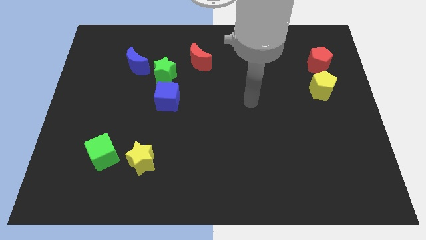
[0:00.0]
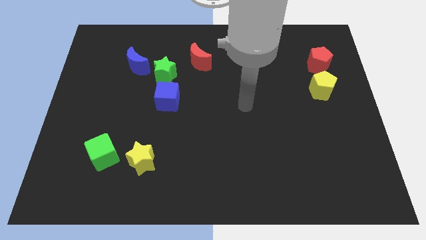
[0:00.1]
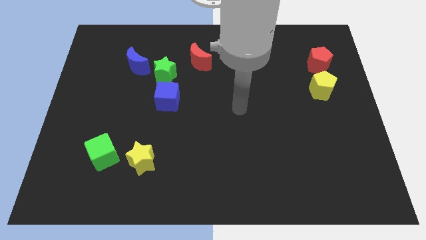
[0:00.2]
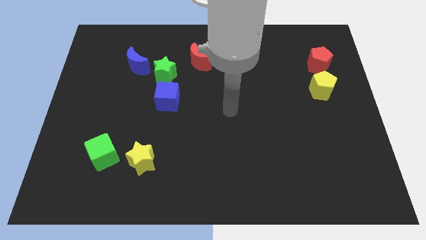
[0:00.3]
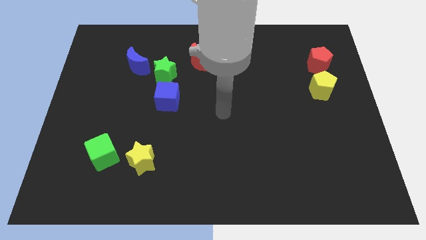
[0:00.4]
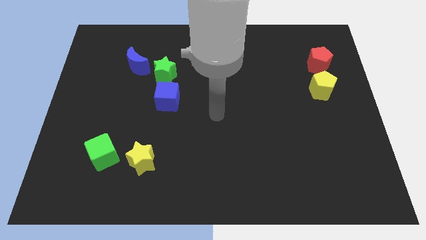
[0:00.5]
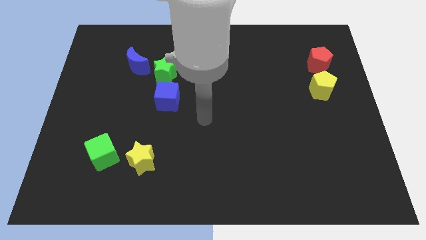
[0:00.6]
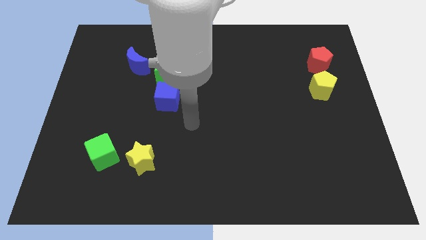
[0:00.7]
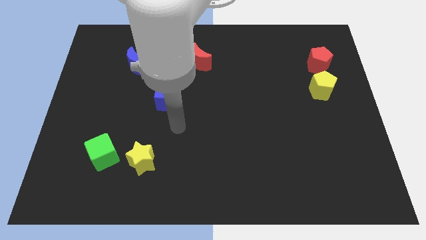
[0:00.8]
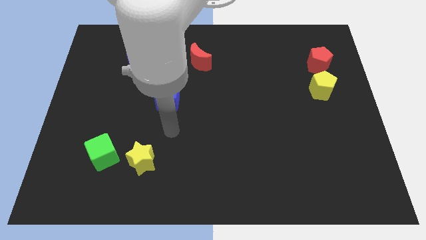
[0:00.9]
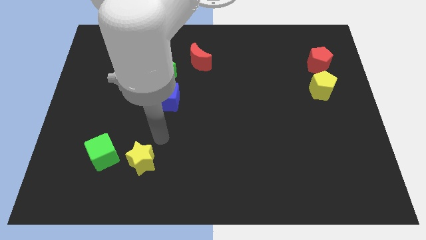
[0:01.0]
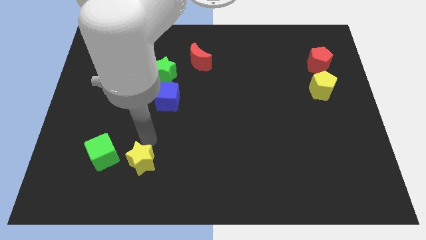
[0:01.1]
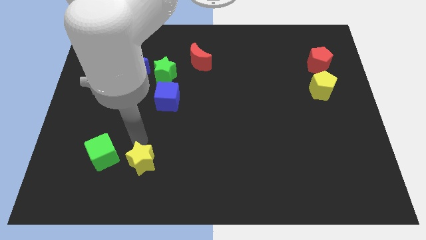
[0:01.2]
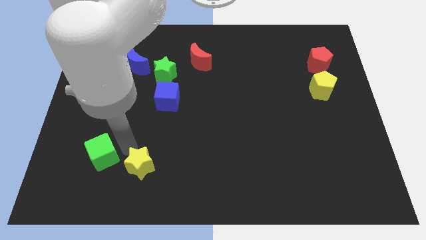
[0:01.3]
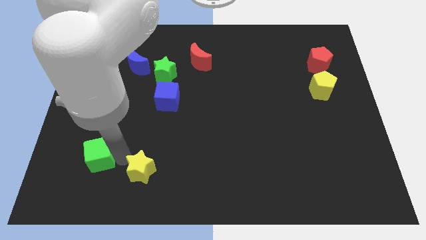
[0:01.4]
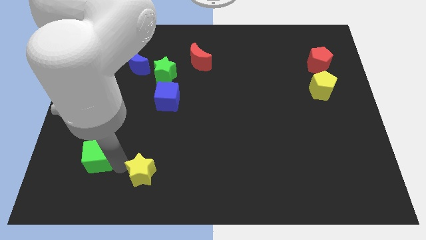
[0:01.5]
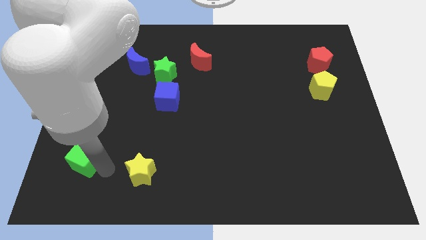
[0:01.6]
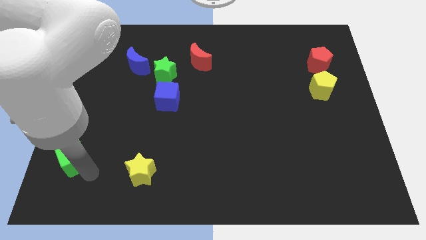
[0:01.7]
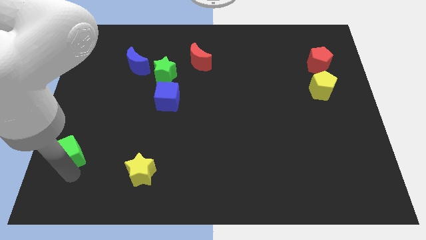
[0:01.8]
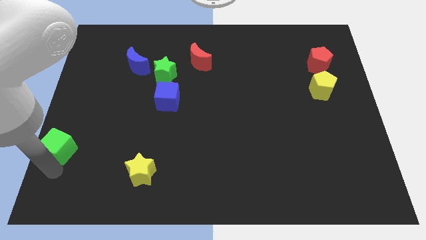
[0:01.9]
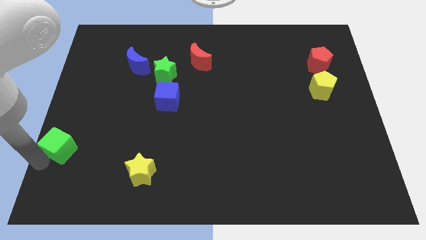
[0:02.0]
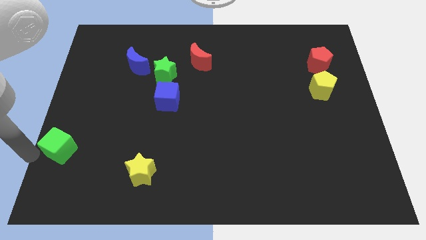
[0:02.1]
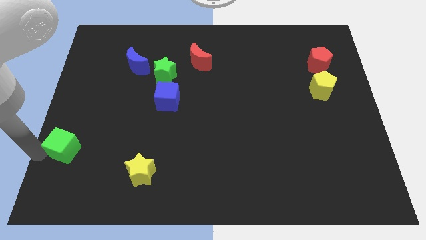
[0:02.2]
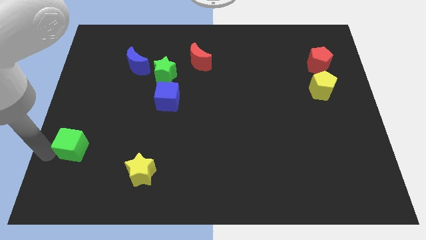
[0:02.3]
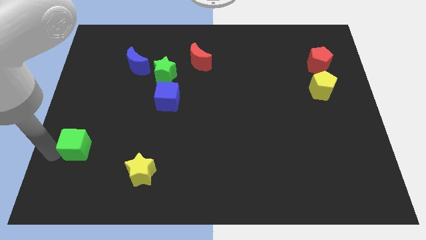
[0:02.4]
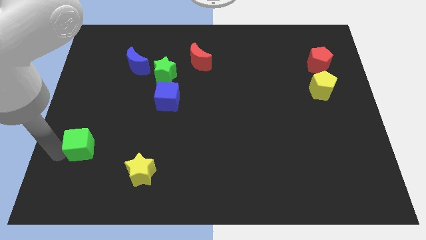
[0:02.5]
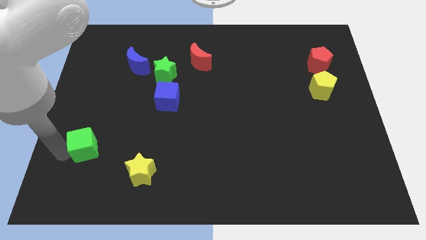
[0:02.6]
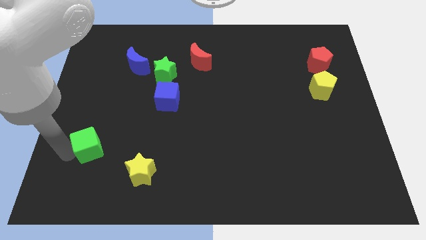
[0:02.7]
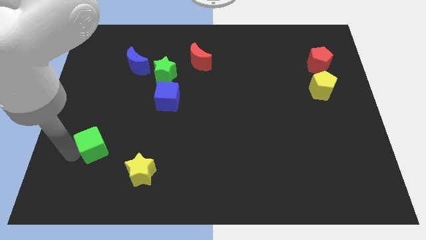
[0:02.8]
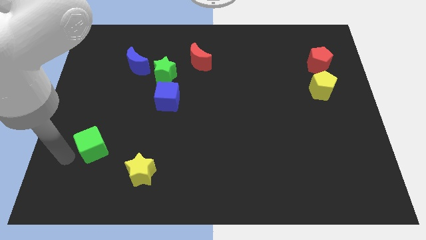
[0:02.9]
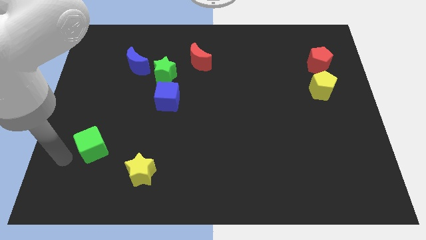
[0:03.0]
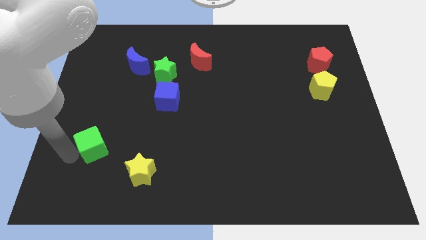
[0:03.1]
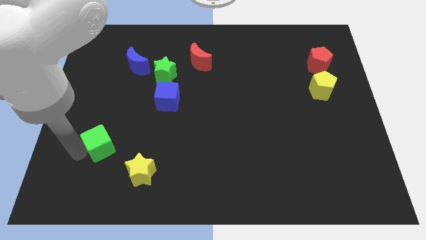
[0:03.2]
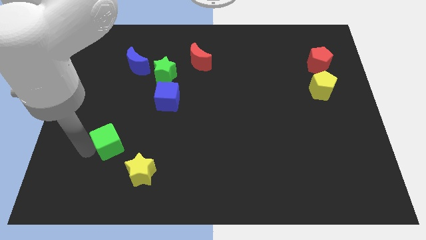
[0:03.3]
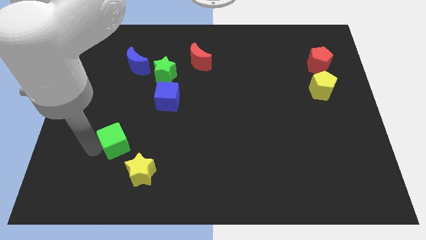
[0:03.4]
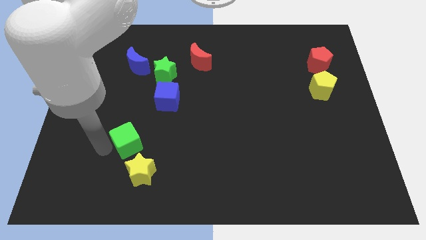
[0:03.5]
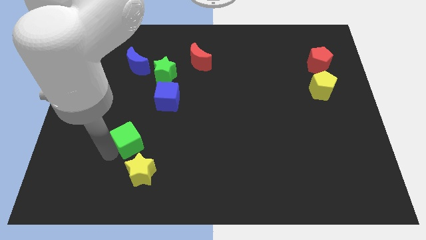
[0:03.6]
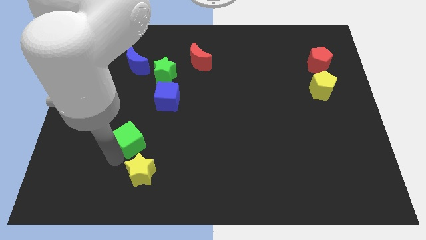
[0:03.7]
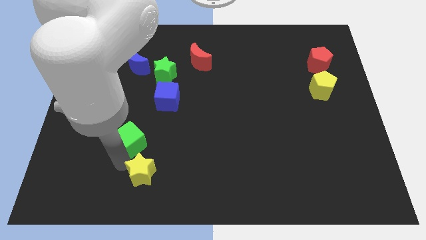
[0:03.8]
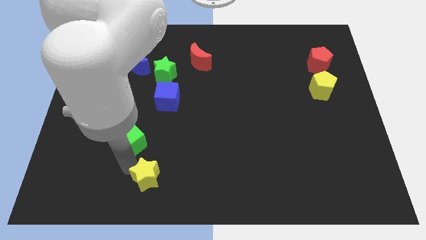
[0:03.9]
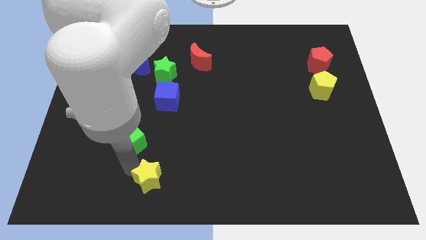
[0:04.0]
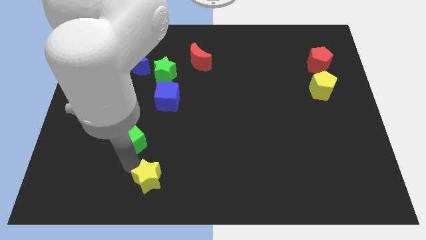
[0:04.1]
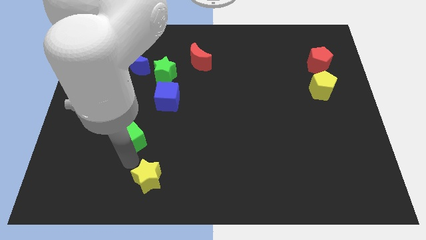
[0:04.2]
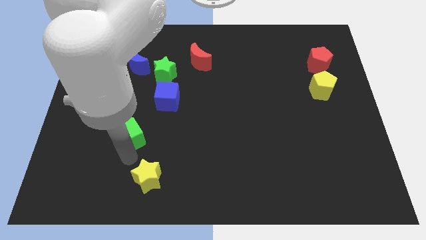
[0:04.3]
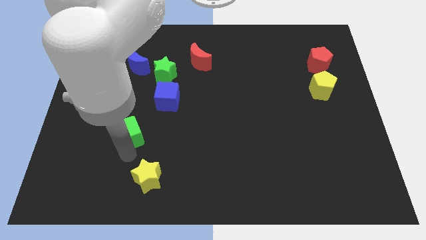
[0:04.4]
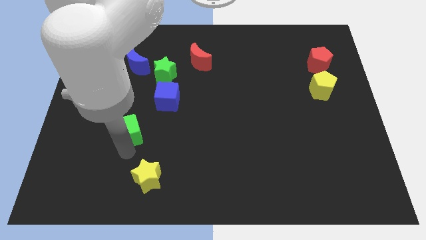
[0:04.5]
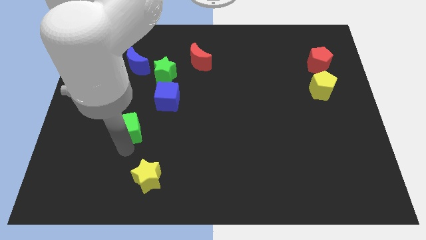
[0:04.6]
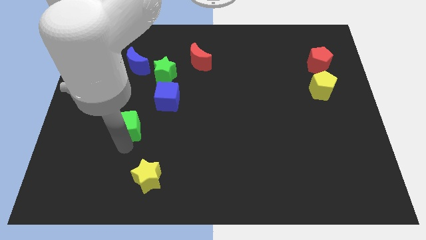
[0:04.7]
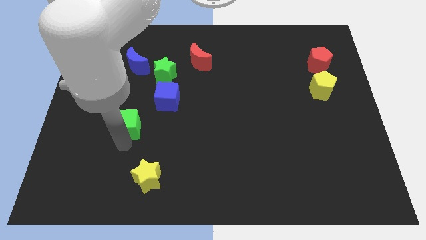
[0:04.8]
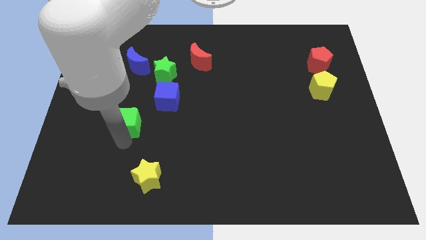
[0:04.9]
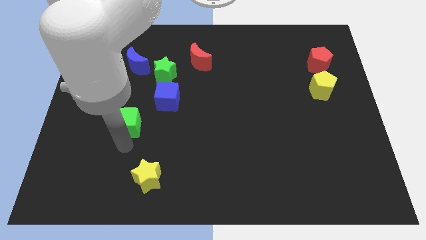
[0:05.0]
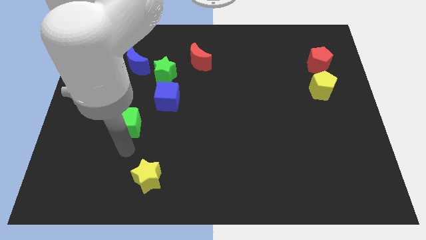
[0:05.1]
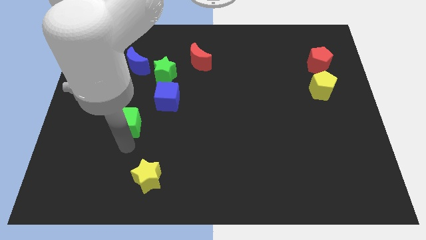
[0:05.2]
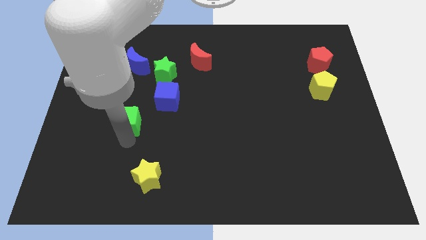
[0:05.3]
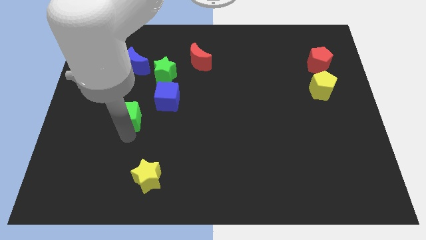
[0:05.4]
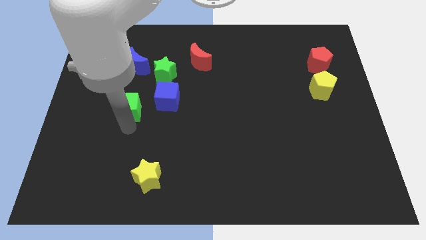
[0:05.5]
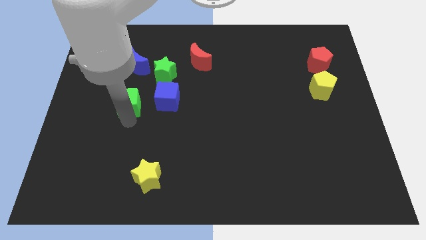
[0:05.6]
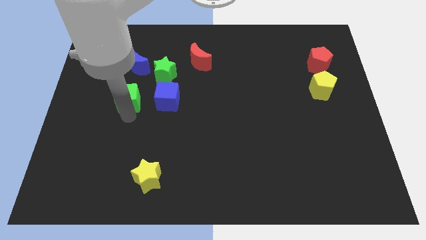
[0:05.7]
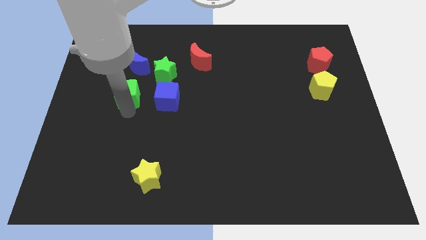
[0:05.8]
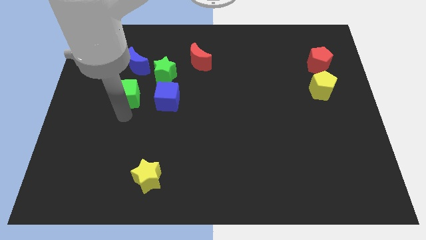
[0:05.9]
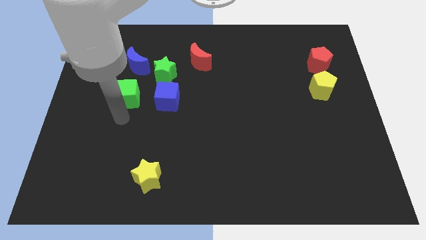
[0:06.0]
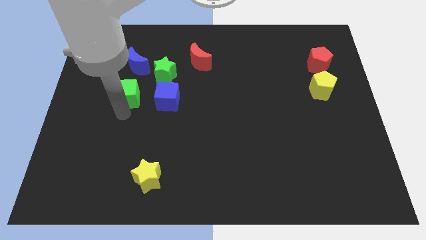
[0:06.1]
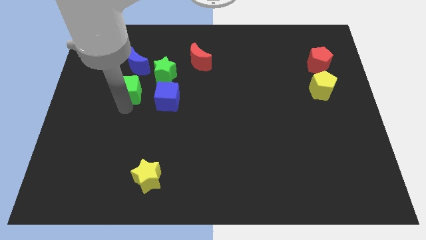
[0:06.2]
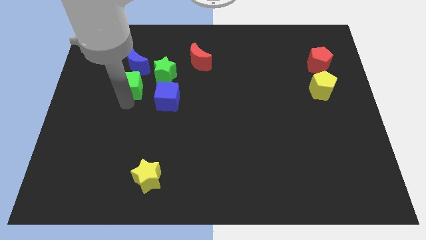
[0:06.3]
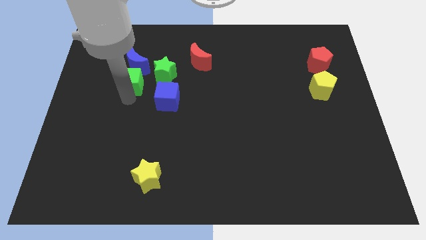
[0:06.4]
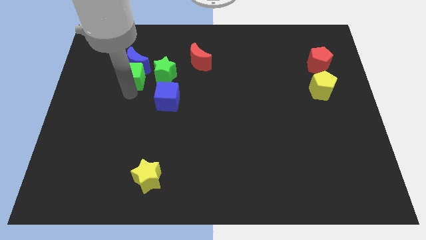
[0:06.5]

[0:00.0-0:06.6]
slide the green cube next to the blue moon
